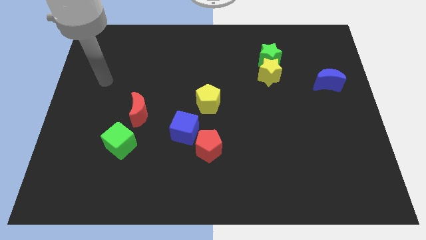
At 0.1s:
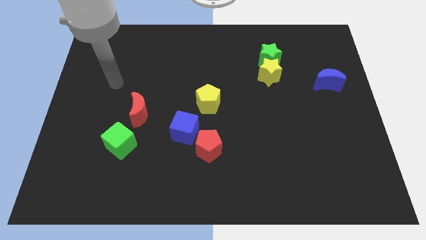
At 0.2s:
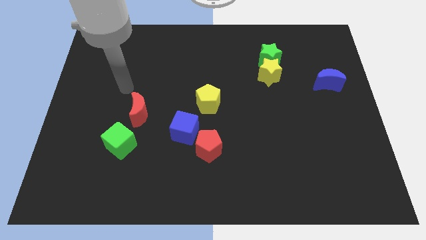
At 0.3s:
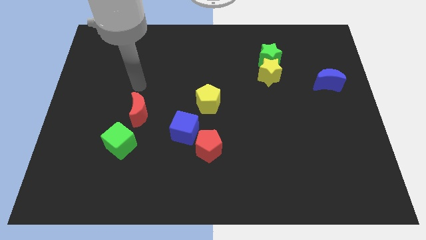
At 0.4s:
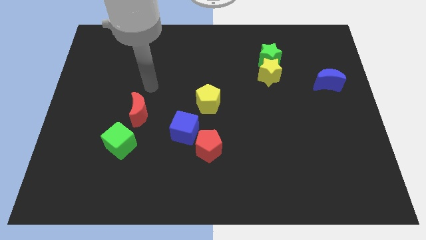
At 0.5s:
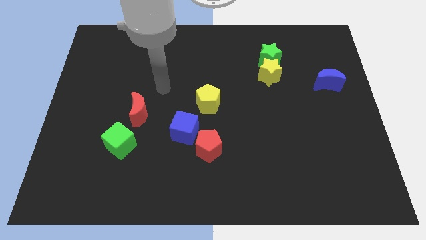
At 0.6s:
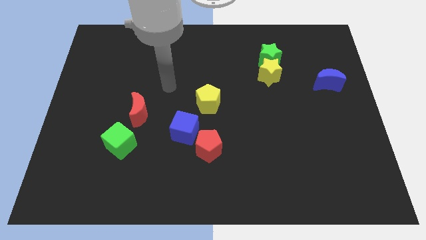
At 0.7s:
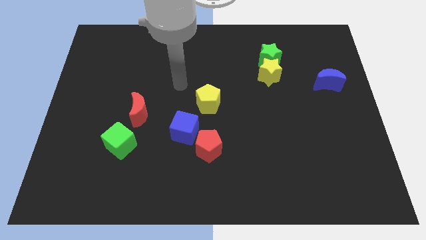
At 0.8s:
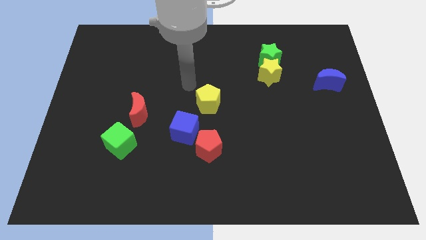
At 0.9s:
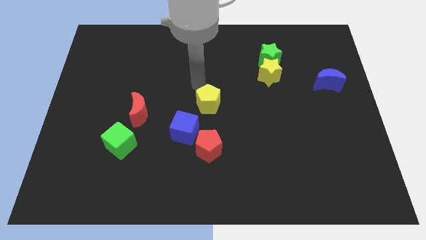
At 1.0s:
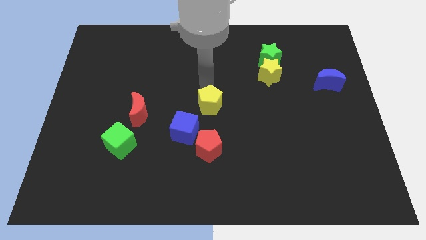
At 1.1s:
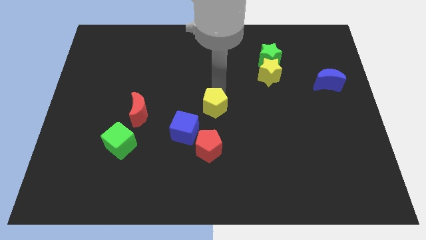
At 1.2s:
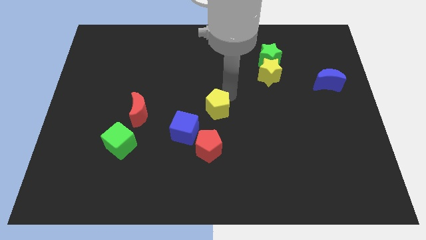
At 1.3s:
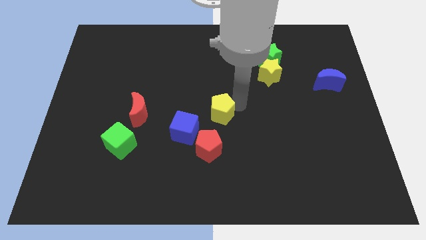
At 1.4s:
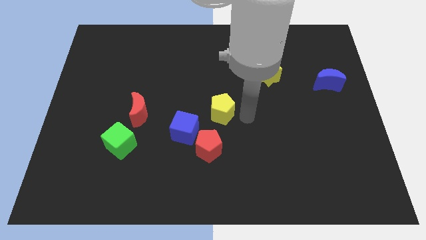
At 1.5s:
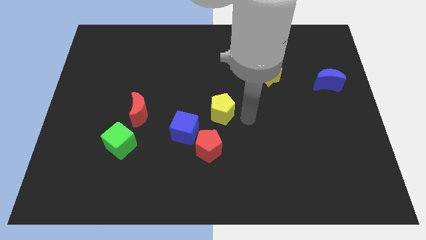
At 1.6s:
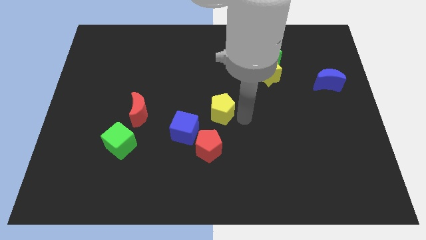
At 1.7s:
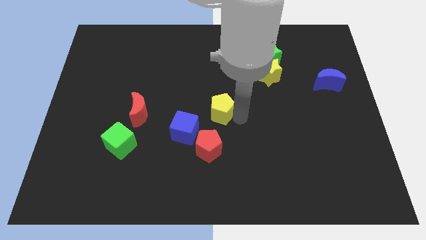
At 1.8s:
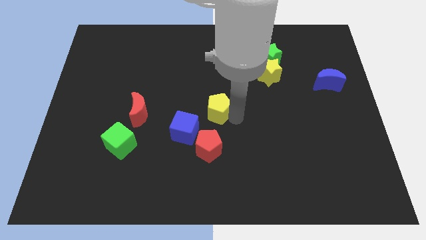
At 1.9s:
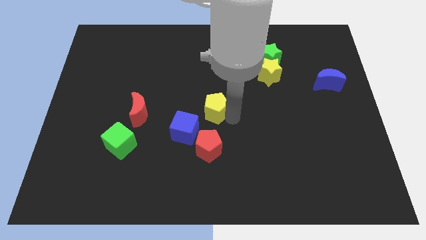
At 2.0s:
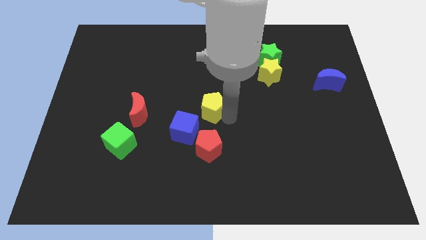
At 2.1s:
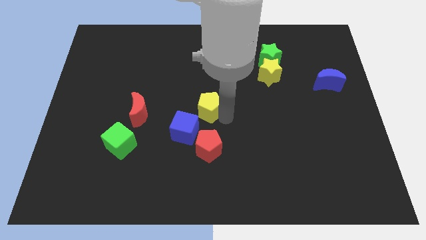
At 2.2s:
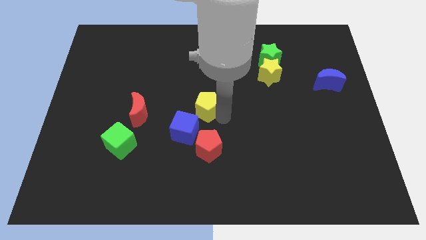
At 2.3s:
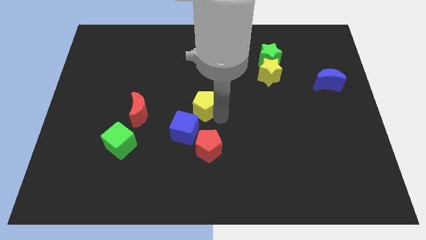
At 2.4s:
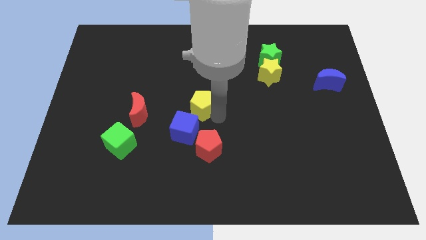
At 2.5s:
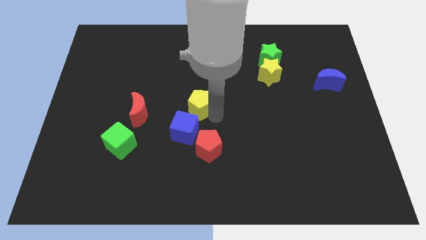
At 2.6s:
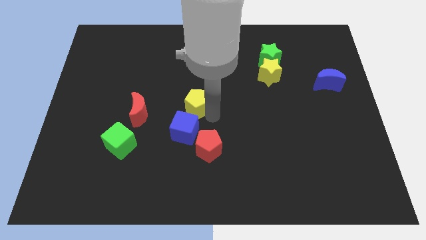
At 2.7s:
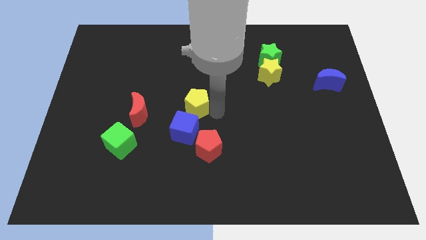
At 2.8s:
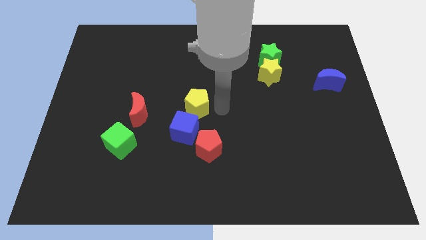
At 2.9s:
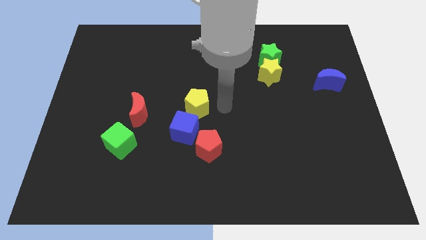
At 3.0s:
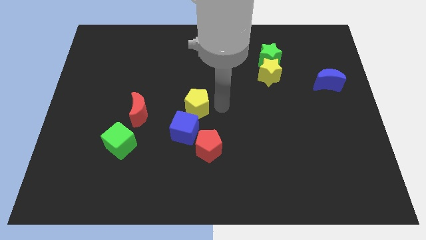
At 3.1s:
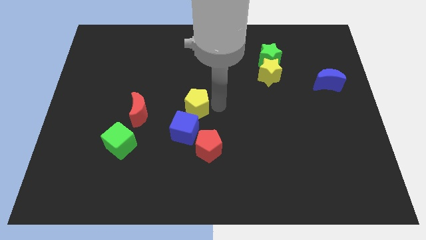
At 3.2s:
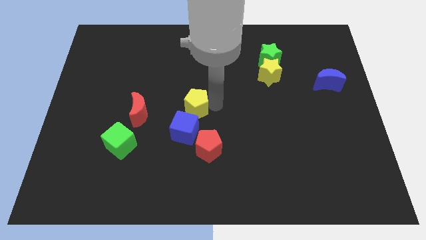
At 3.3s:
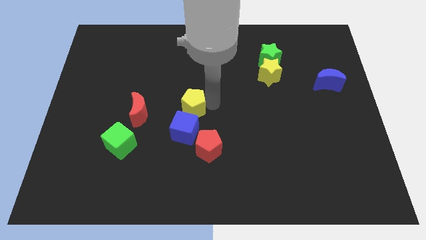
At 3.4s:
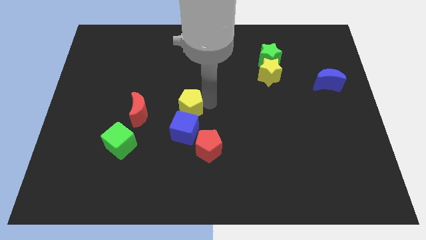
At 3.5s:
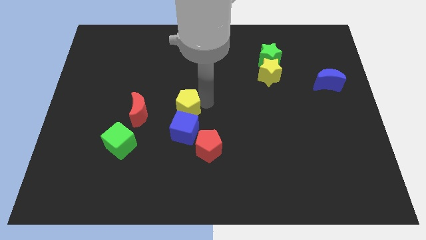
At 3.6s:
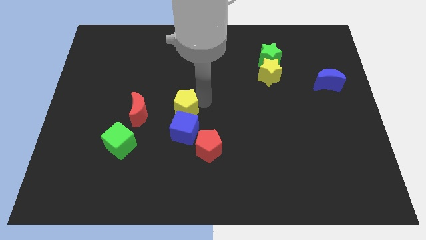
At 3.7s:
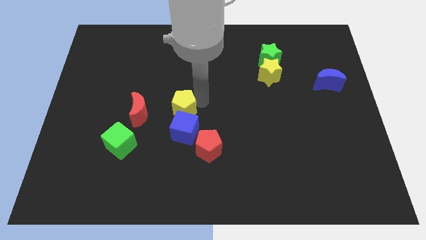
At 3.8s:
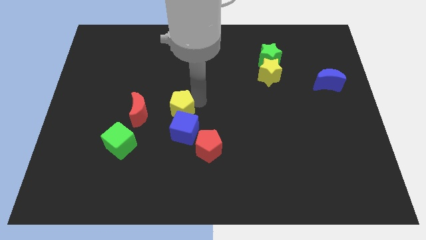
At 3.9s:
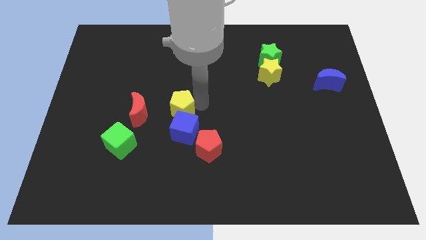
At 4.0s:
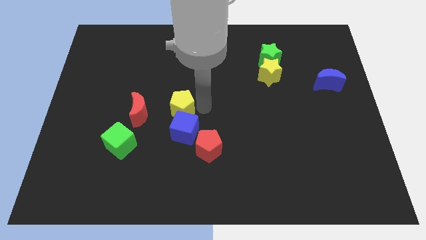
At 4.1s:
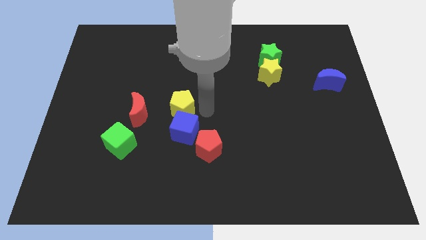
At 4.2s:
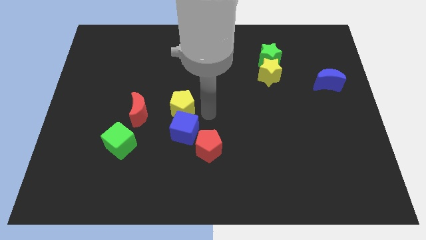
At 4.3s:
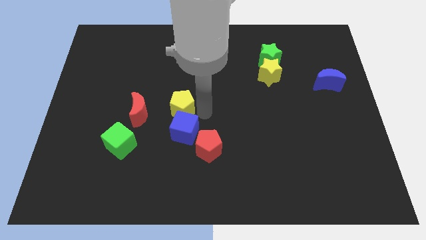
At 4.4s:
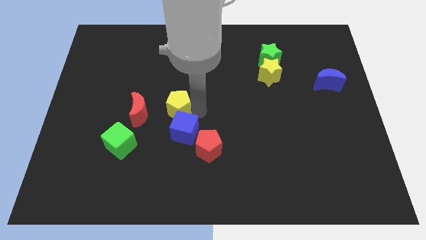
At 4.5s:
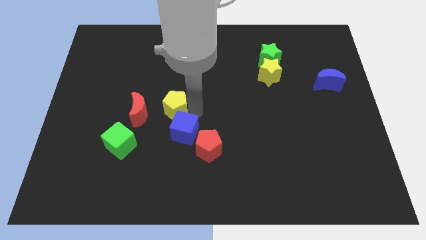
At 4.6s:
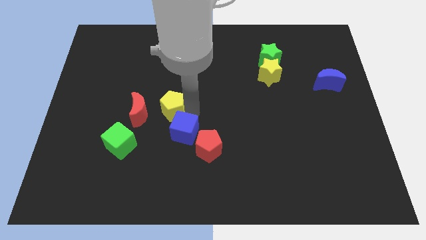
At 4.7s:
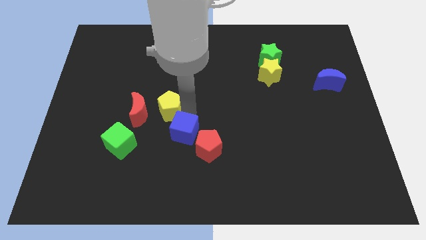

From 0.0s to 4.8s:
slightly move the yellow pentagon downwards and left

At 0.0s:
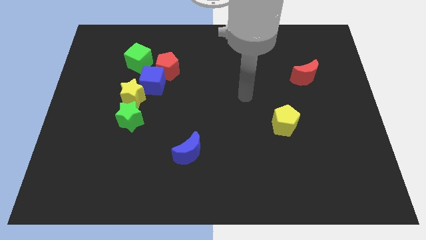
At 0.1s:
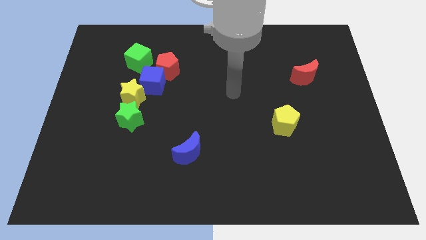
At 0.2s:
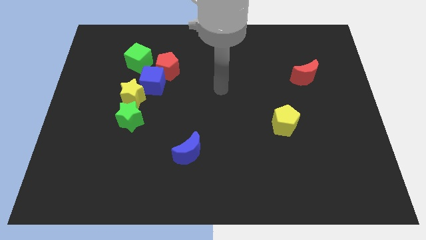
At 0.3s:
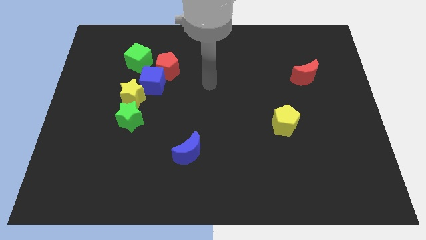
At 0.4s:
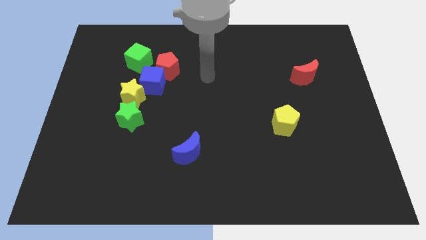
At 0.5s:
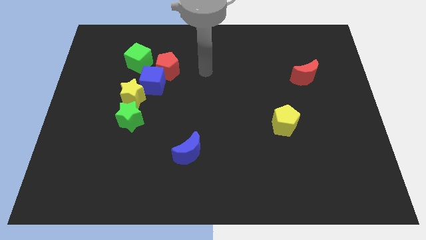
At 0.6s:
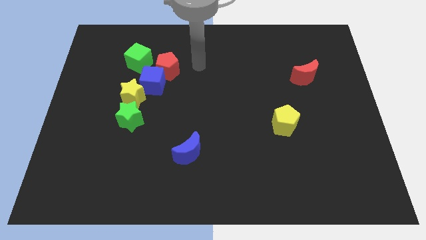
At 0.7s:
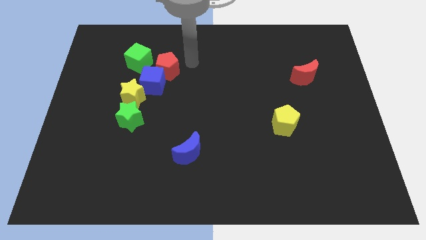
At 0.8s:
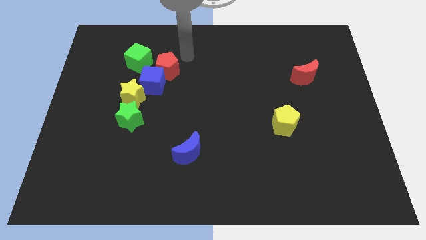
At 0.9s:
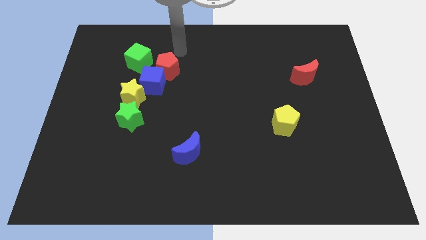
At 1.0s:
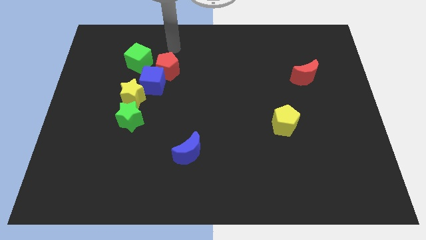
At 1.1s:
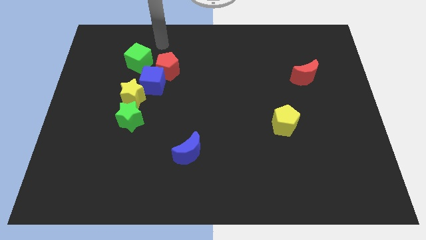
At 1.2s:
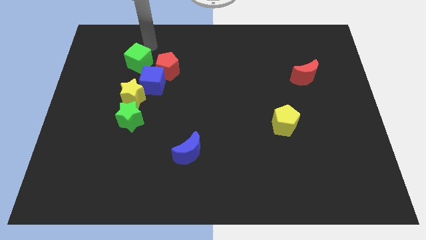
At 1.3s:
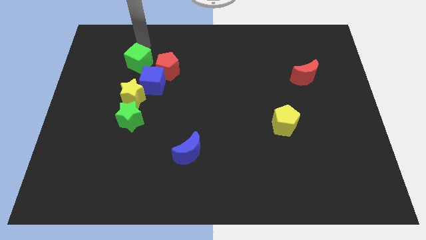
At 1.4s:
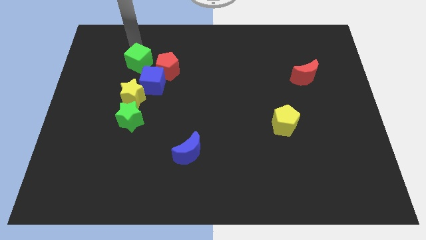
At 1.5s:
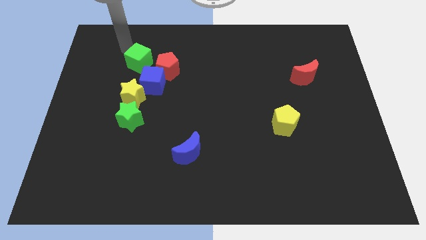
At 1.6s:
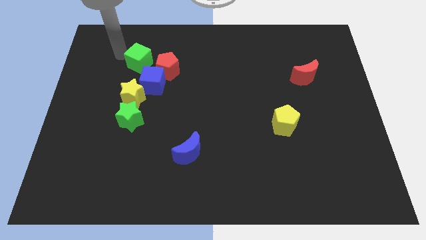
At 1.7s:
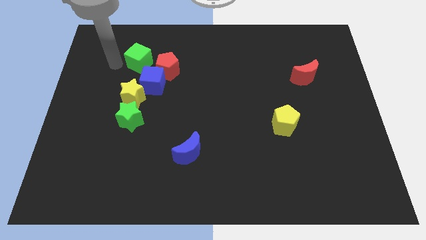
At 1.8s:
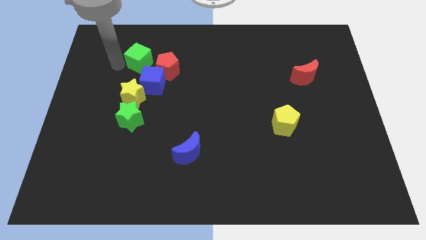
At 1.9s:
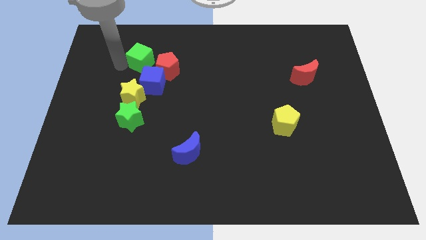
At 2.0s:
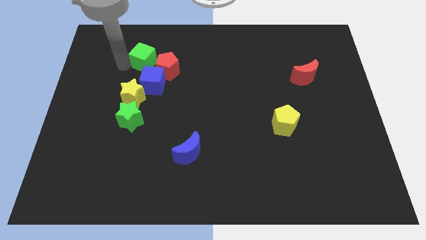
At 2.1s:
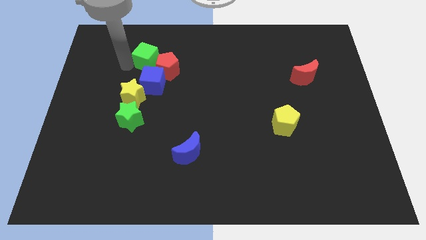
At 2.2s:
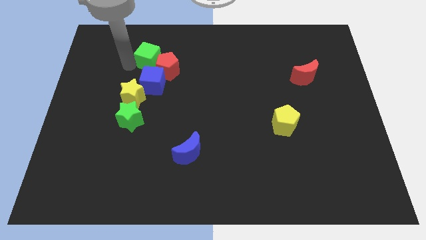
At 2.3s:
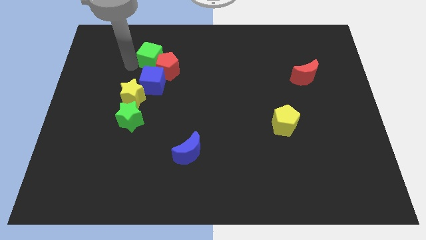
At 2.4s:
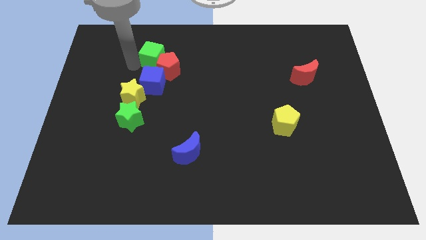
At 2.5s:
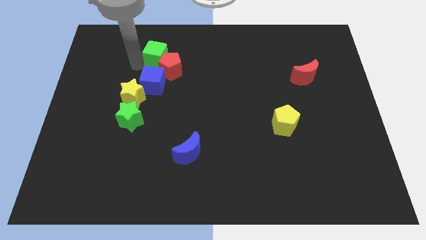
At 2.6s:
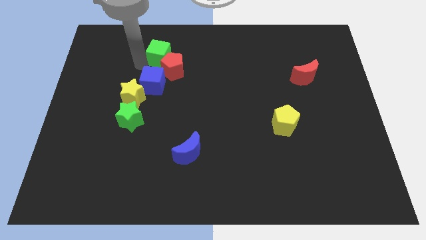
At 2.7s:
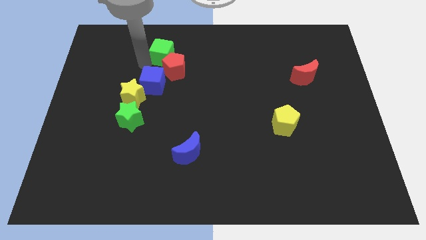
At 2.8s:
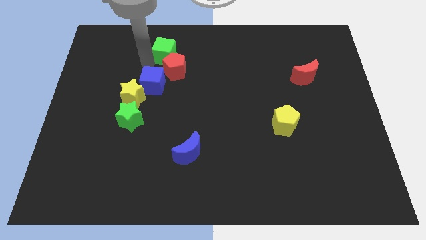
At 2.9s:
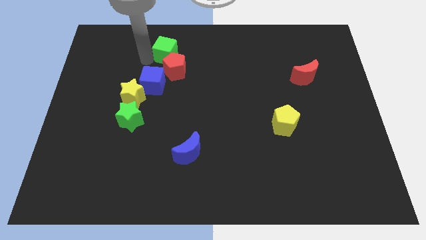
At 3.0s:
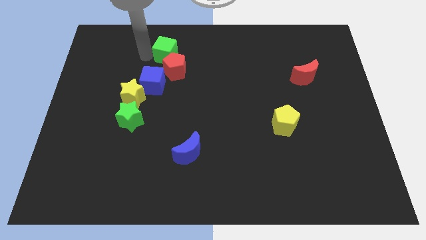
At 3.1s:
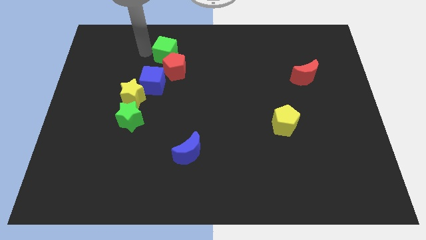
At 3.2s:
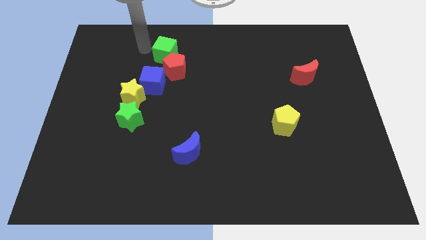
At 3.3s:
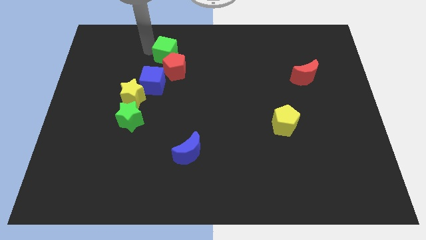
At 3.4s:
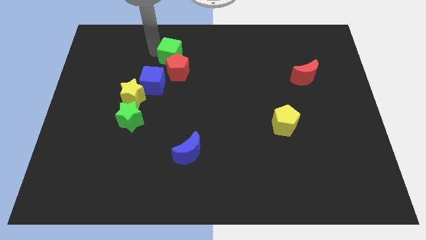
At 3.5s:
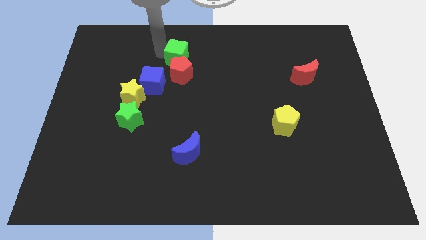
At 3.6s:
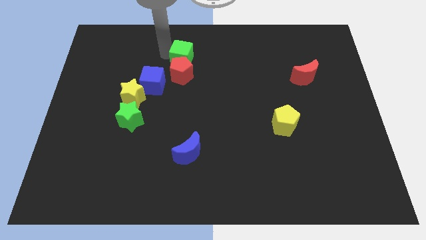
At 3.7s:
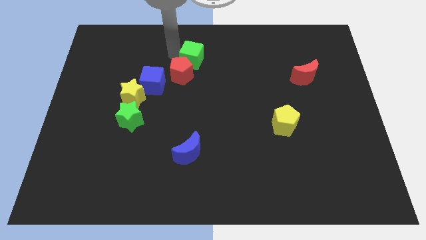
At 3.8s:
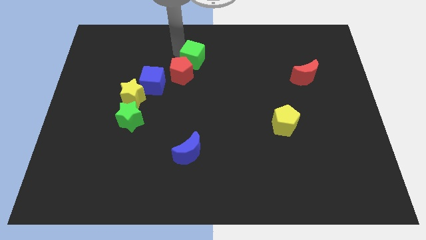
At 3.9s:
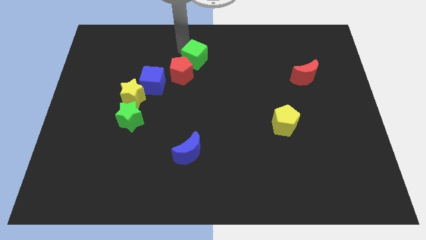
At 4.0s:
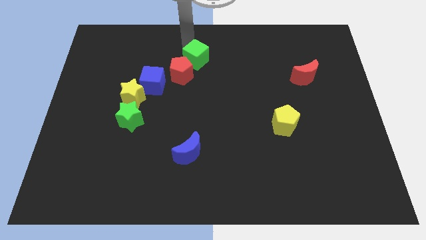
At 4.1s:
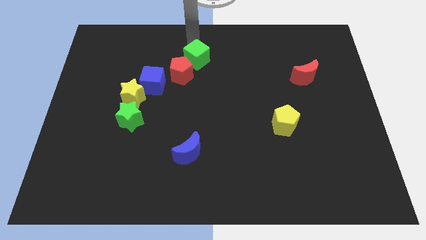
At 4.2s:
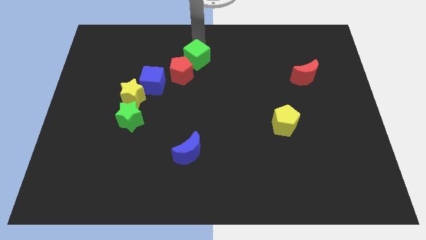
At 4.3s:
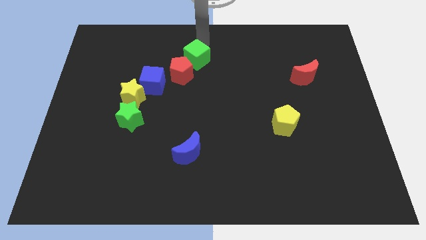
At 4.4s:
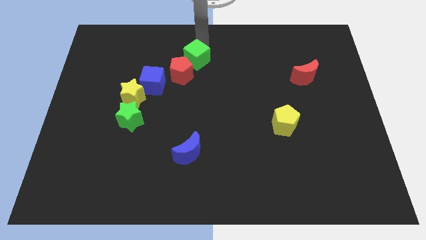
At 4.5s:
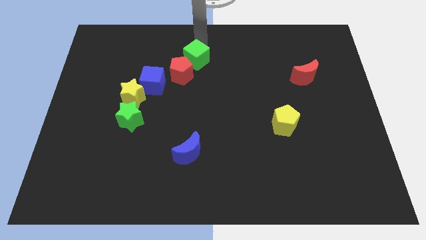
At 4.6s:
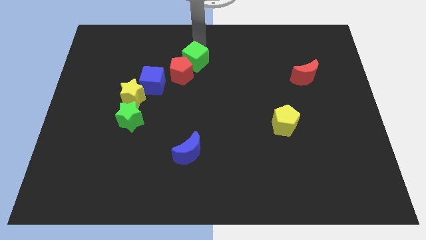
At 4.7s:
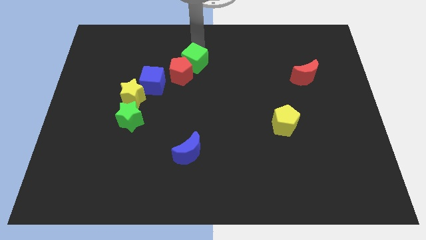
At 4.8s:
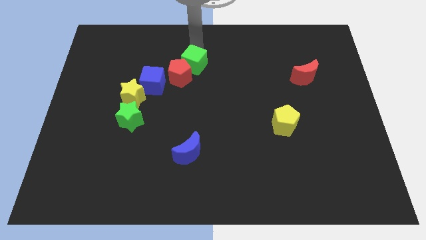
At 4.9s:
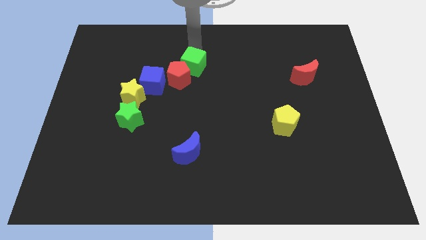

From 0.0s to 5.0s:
slide the green cube slightly down and then to the right
